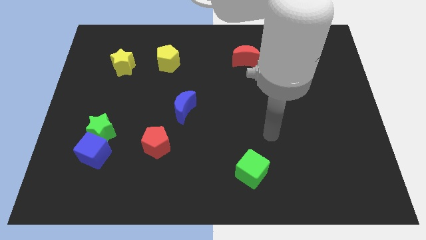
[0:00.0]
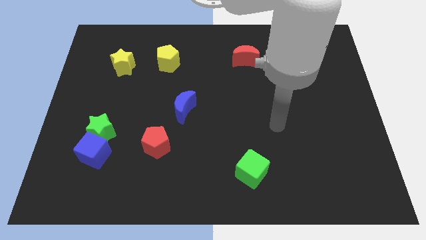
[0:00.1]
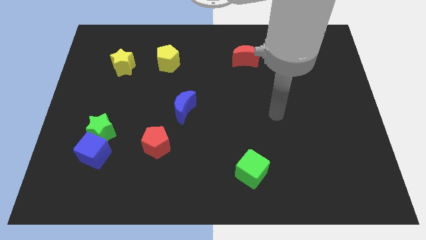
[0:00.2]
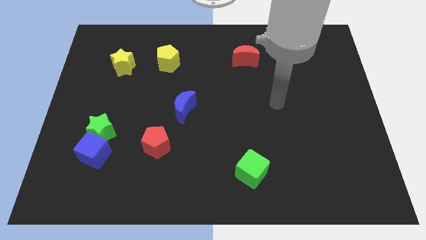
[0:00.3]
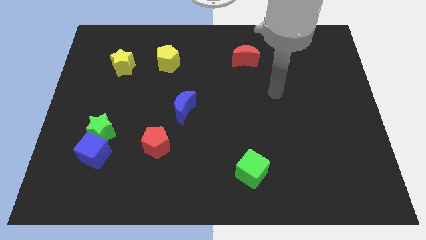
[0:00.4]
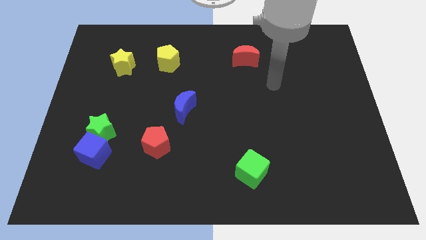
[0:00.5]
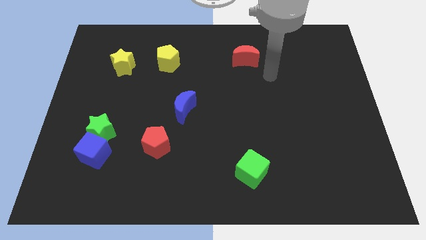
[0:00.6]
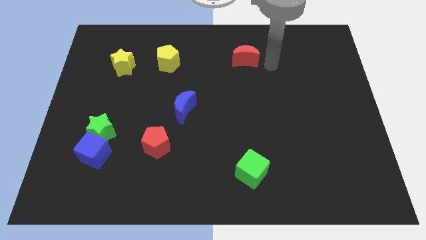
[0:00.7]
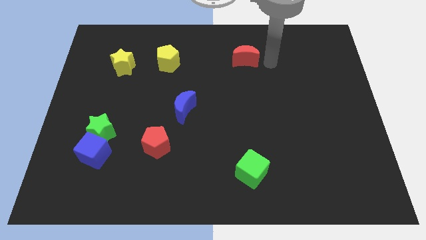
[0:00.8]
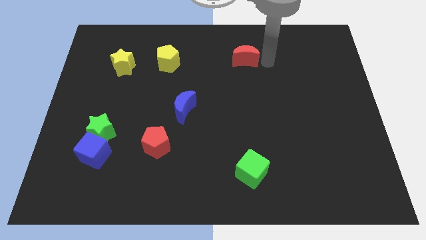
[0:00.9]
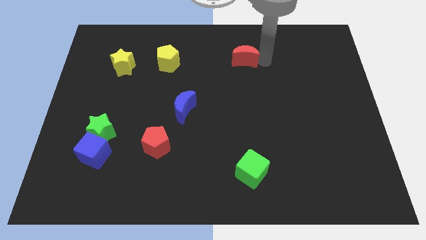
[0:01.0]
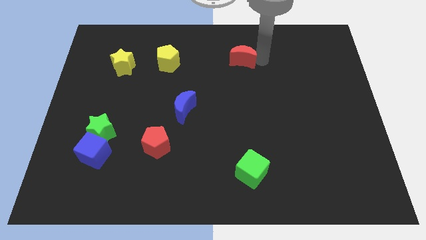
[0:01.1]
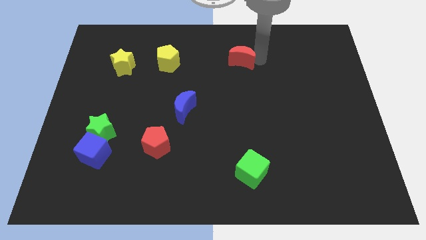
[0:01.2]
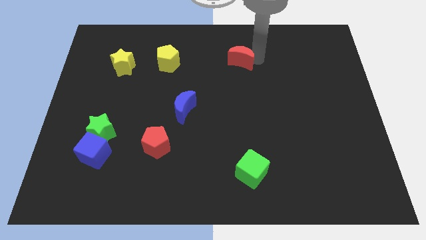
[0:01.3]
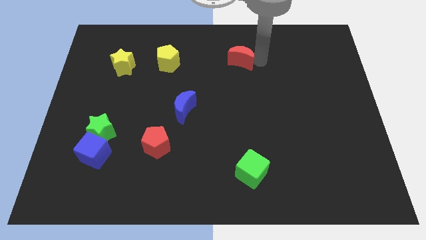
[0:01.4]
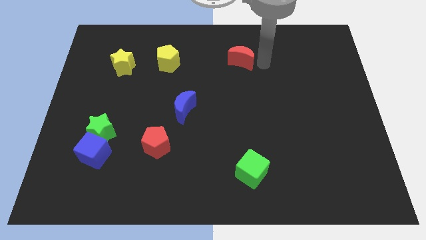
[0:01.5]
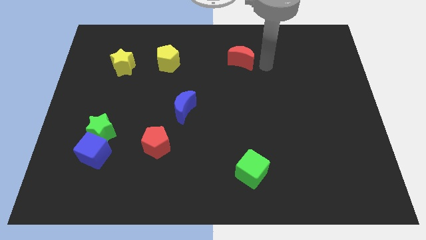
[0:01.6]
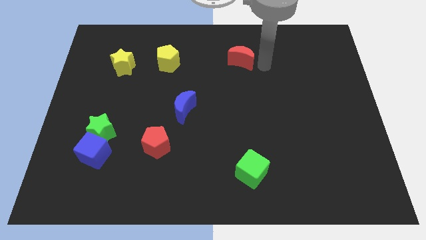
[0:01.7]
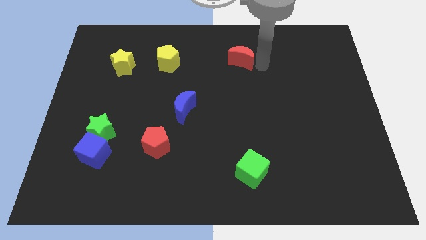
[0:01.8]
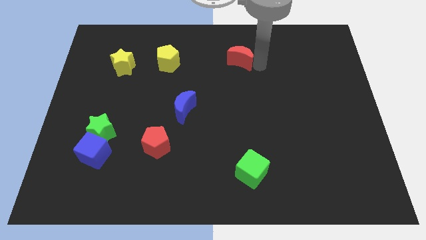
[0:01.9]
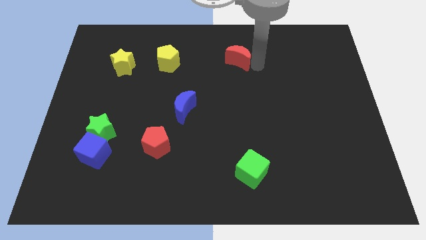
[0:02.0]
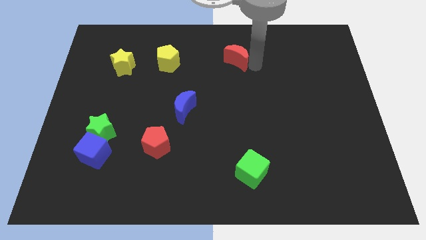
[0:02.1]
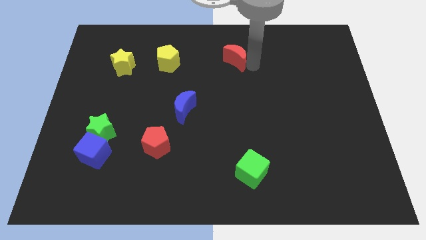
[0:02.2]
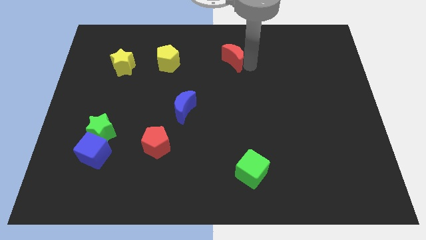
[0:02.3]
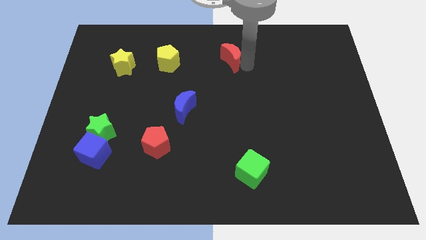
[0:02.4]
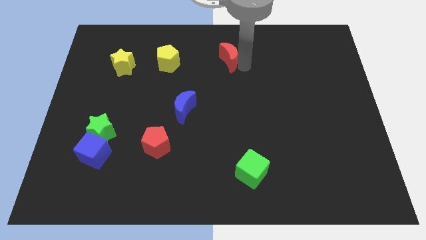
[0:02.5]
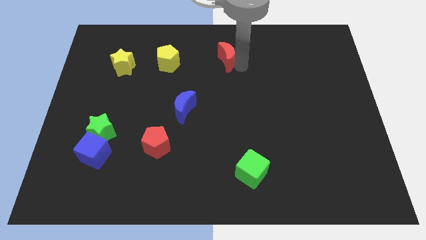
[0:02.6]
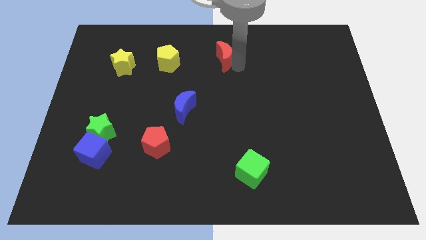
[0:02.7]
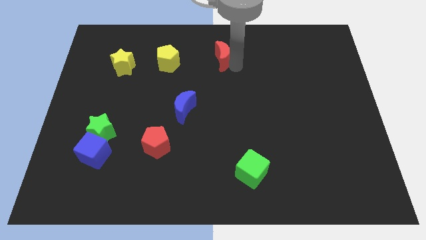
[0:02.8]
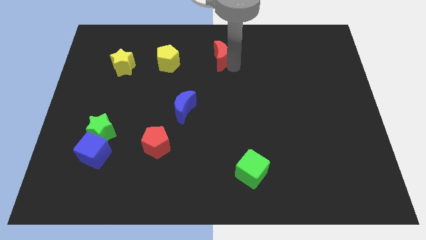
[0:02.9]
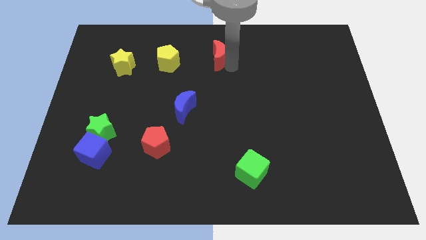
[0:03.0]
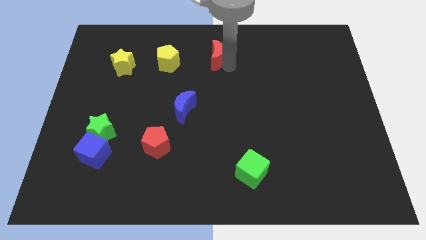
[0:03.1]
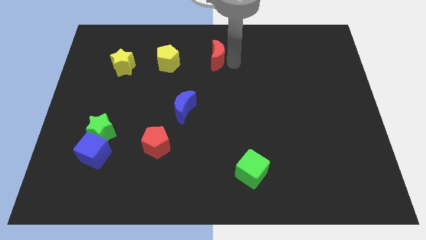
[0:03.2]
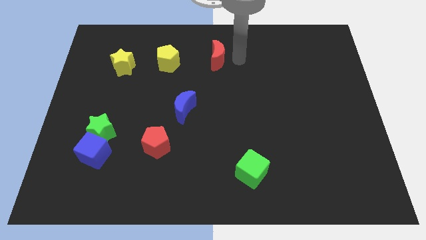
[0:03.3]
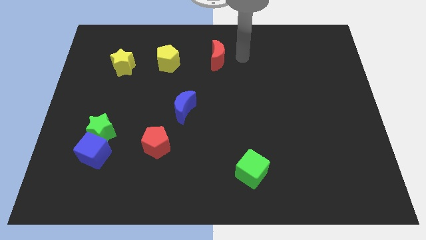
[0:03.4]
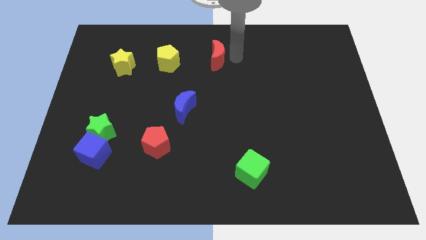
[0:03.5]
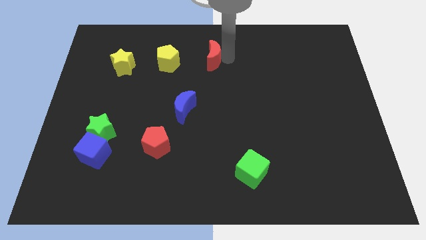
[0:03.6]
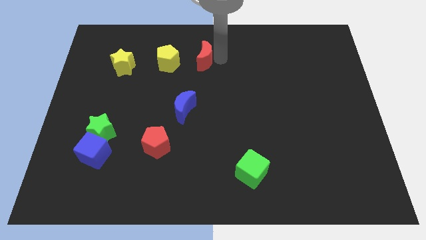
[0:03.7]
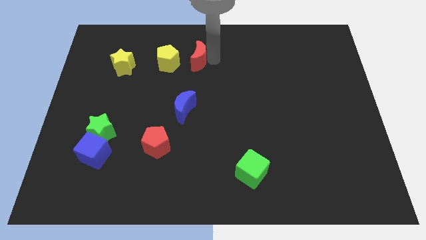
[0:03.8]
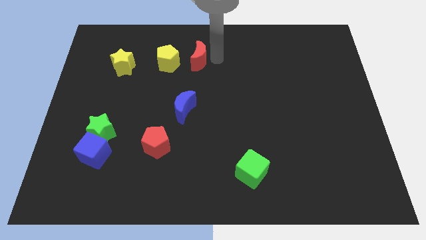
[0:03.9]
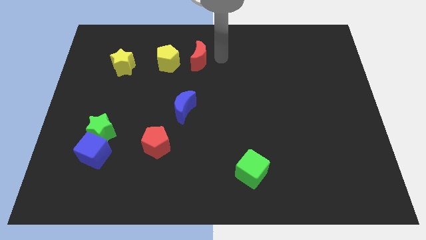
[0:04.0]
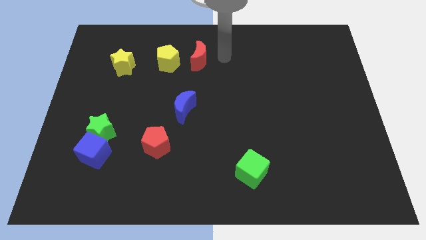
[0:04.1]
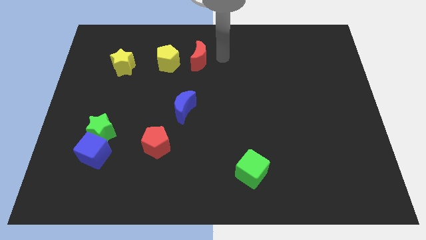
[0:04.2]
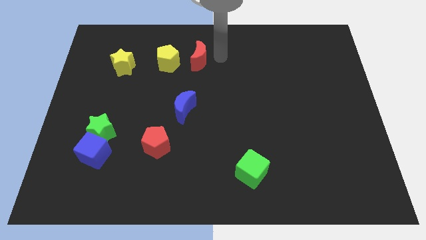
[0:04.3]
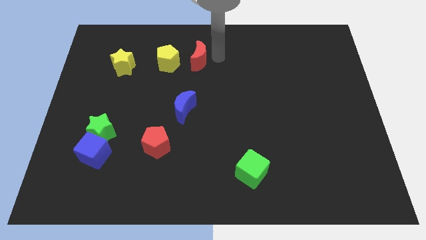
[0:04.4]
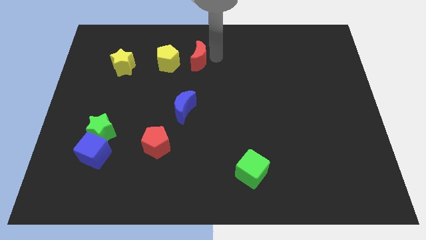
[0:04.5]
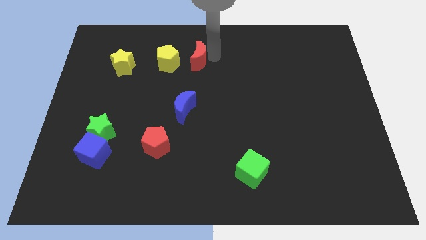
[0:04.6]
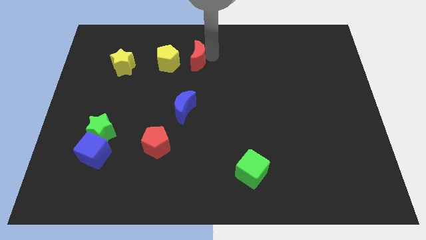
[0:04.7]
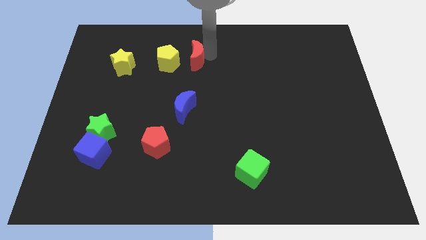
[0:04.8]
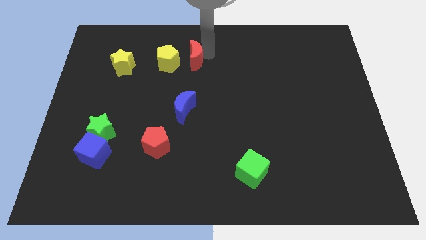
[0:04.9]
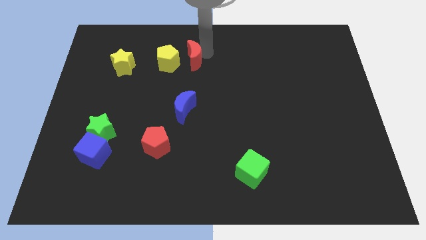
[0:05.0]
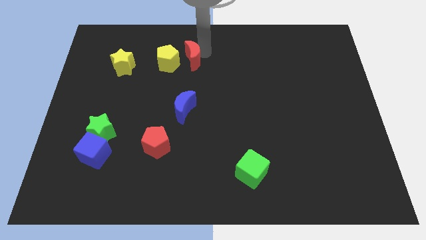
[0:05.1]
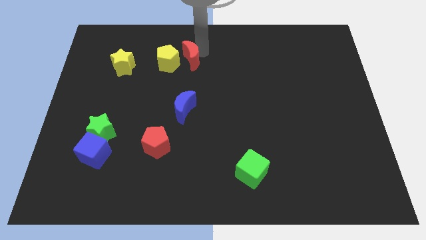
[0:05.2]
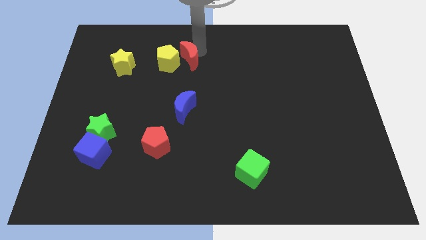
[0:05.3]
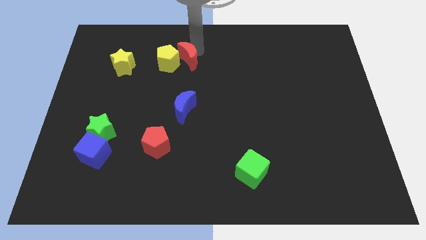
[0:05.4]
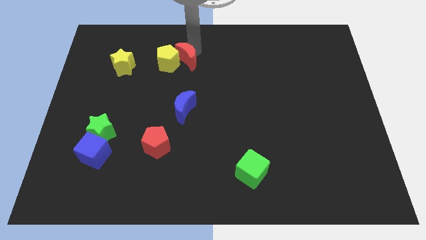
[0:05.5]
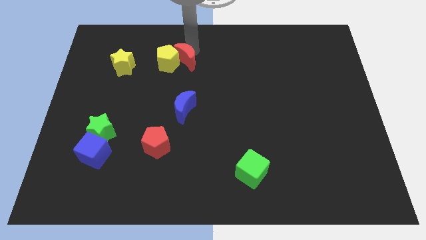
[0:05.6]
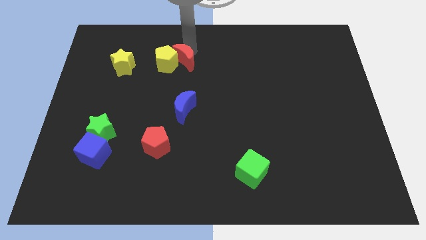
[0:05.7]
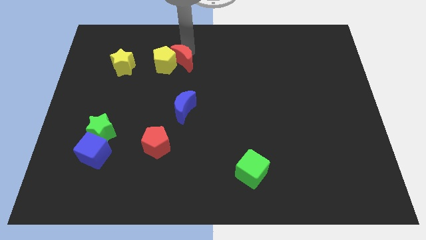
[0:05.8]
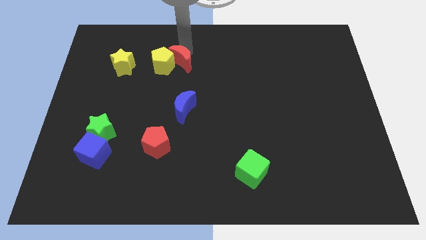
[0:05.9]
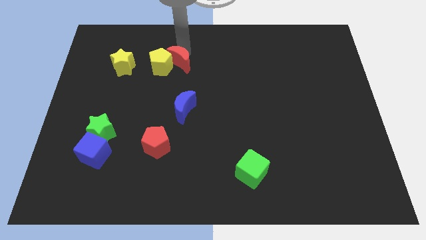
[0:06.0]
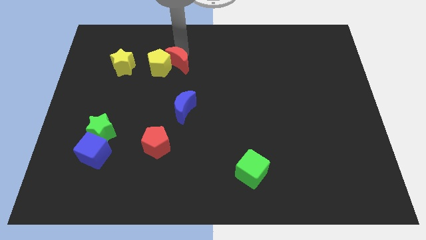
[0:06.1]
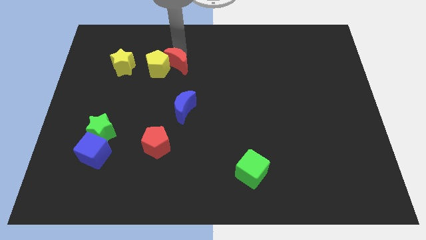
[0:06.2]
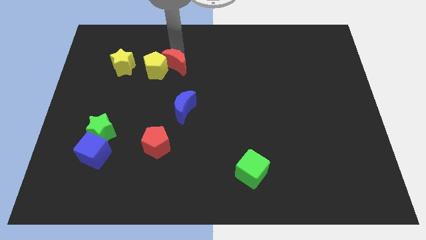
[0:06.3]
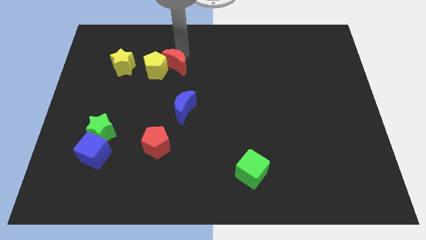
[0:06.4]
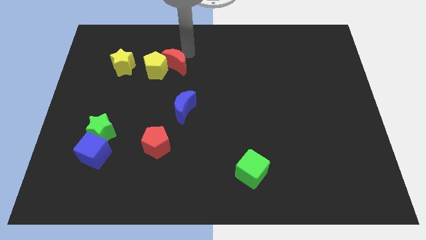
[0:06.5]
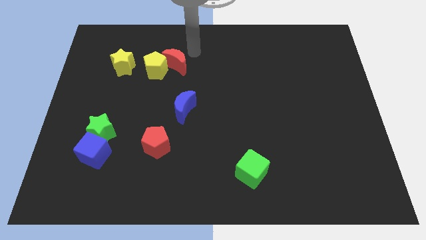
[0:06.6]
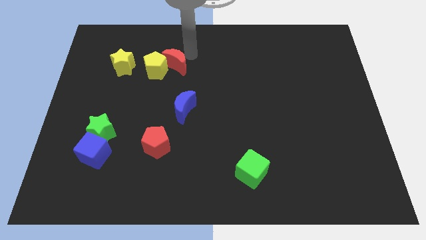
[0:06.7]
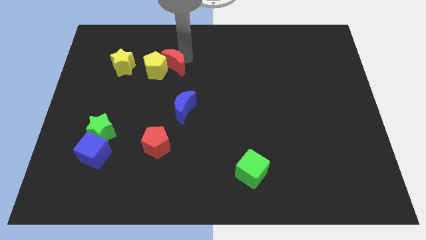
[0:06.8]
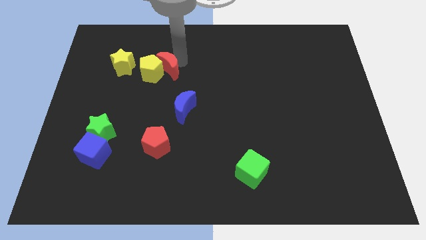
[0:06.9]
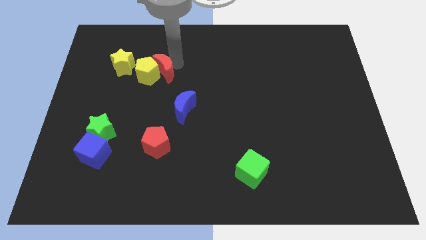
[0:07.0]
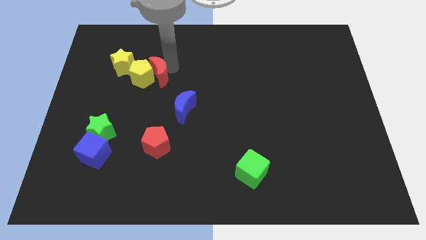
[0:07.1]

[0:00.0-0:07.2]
slide the red moon diagonally down and to the right of the yellow star
